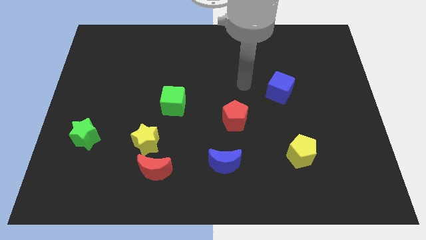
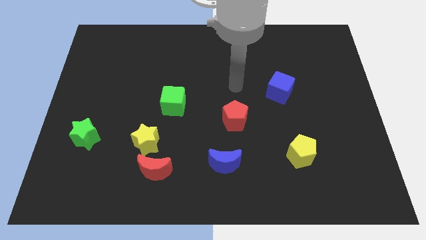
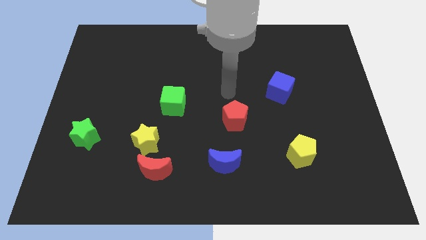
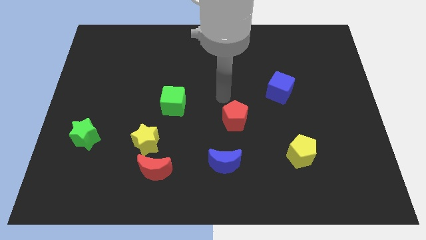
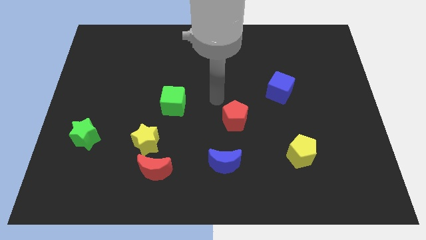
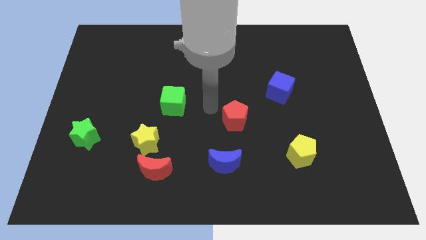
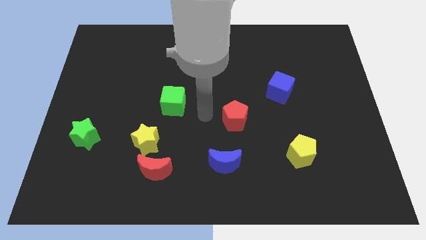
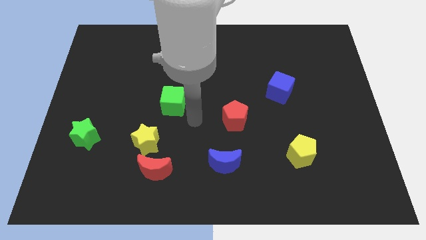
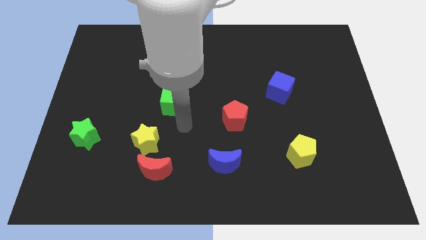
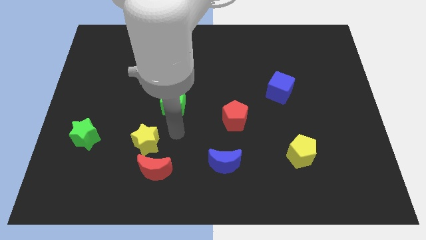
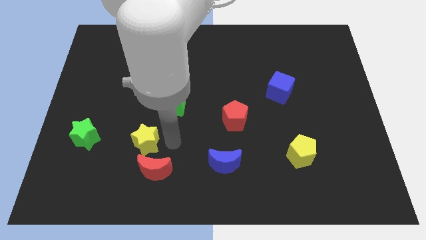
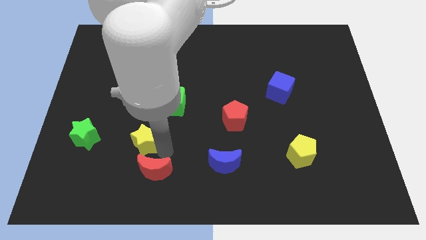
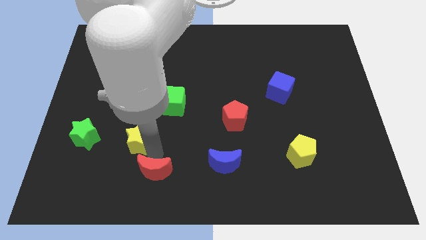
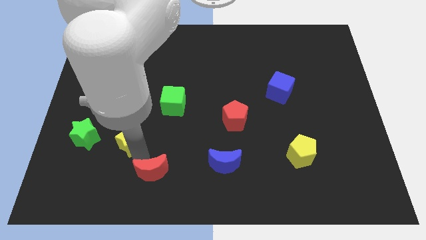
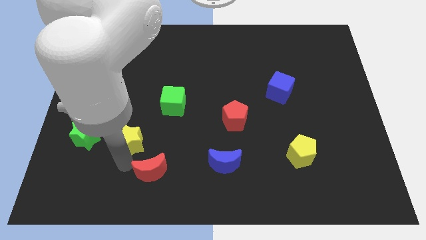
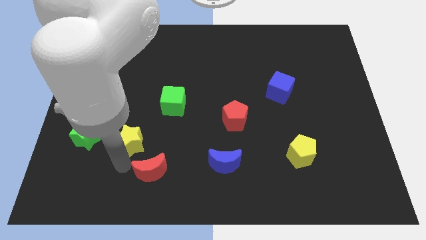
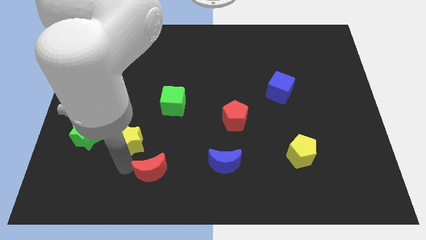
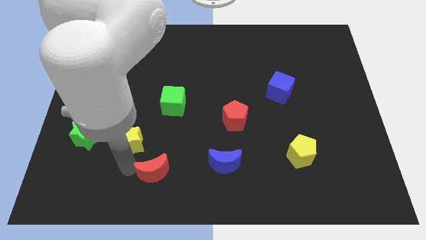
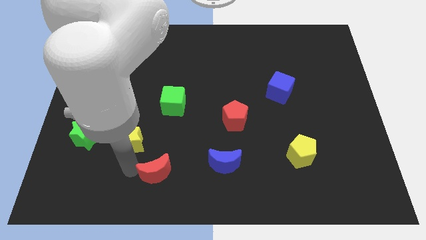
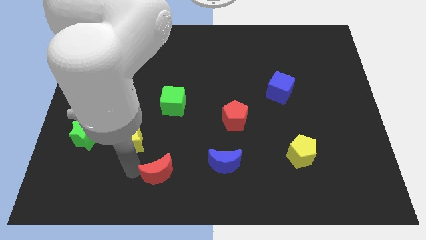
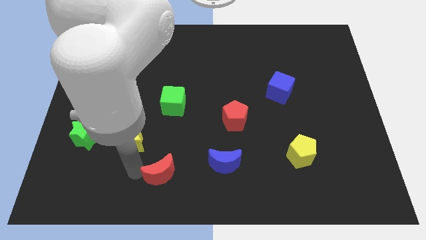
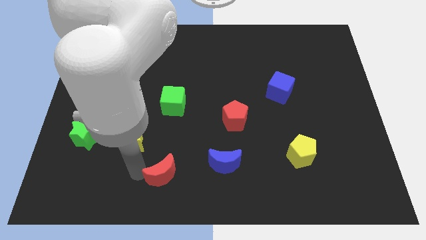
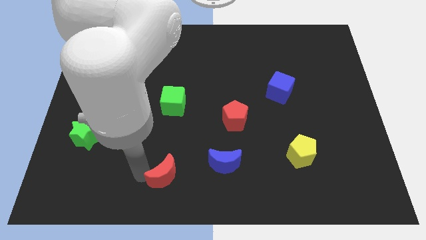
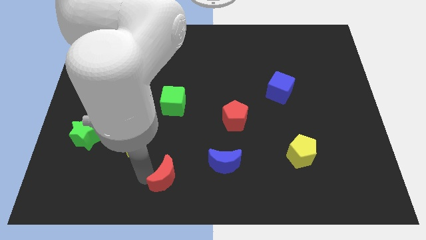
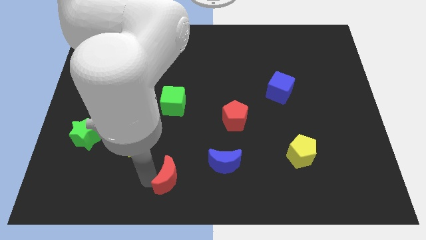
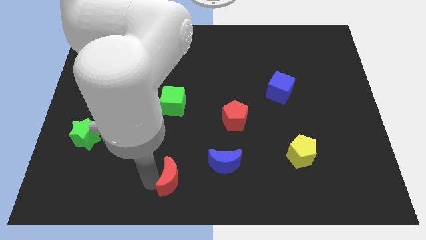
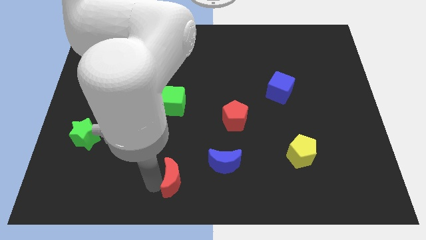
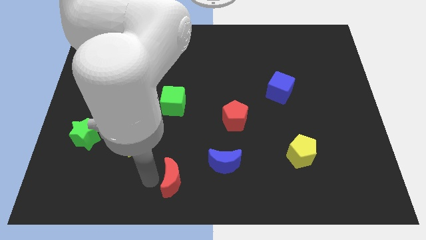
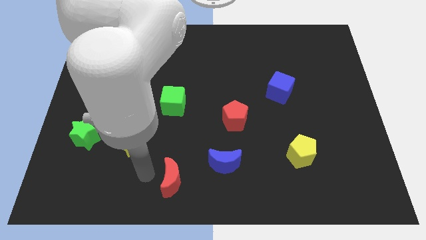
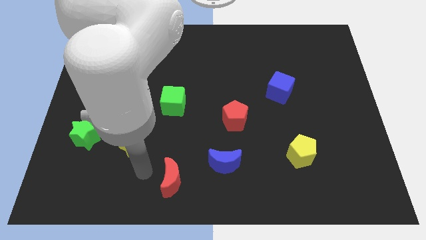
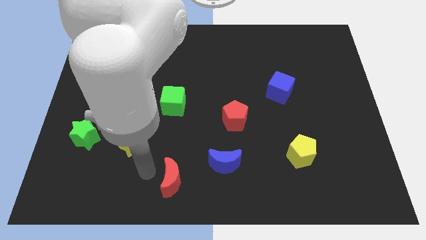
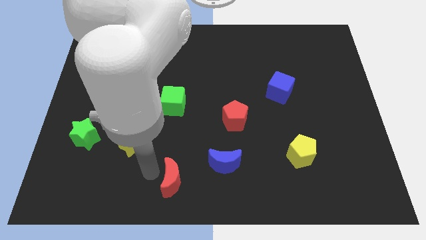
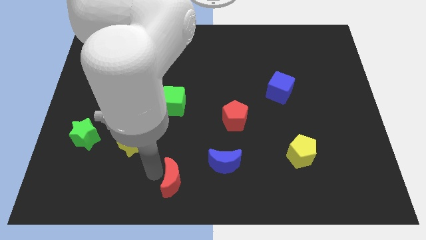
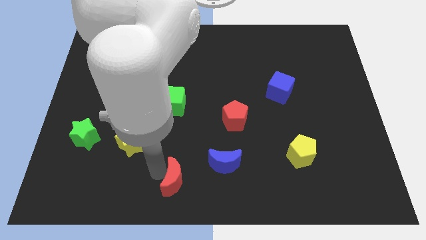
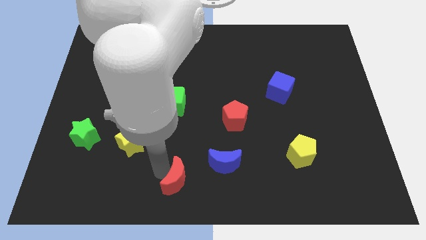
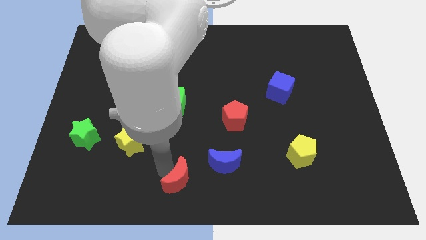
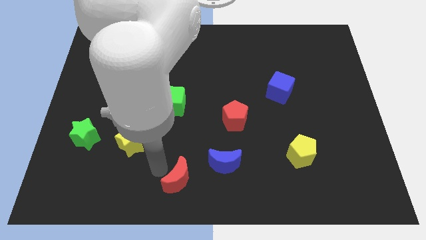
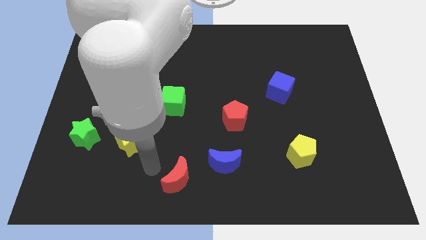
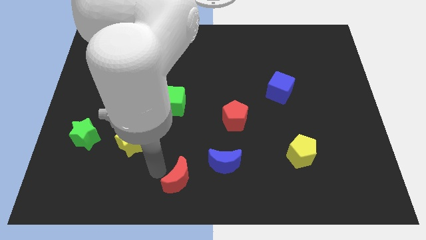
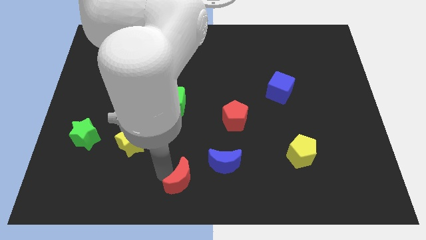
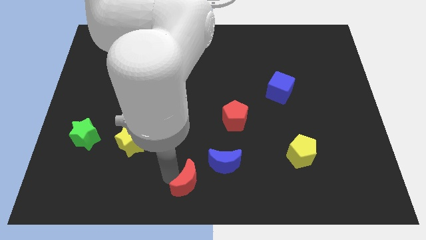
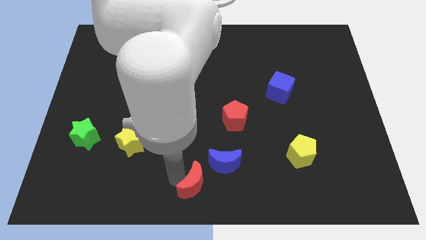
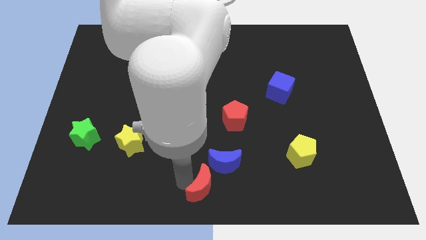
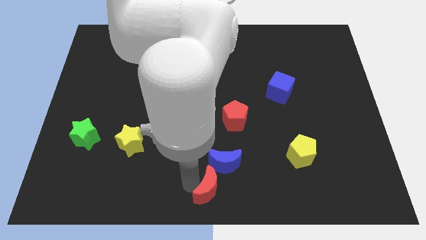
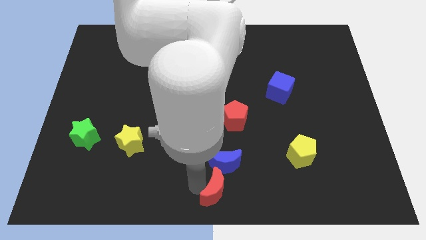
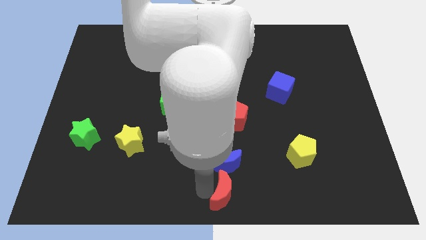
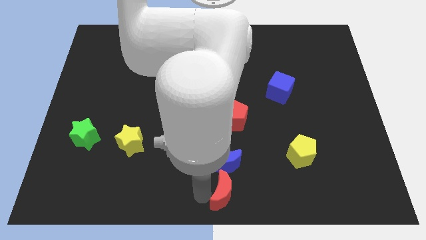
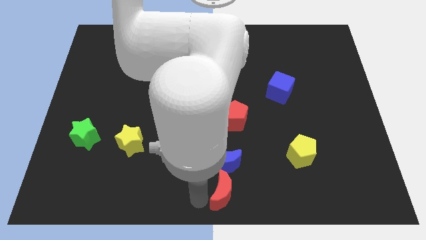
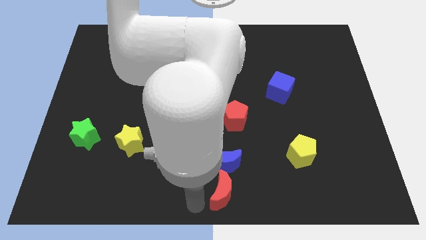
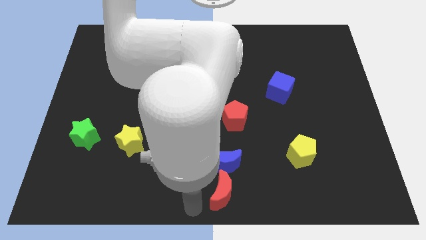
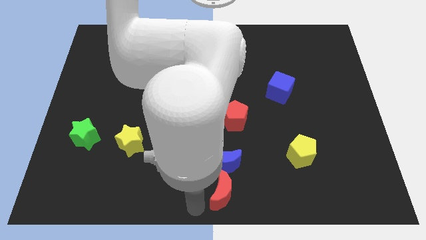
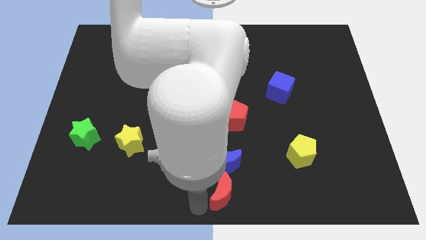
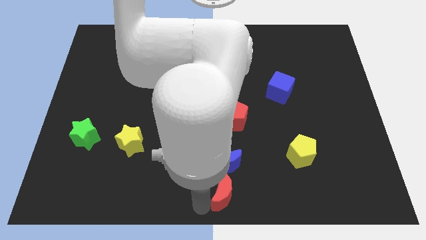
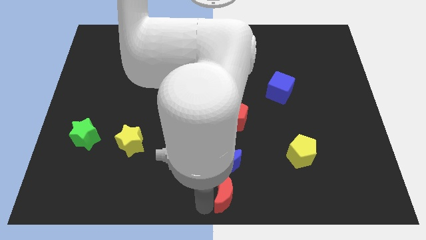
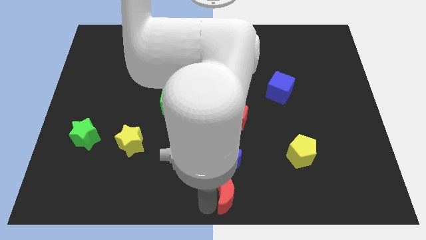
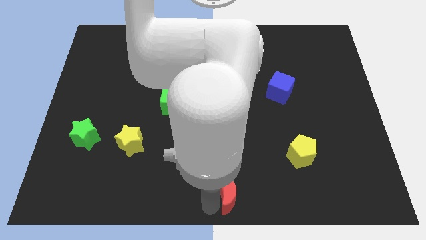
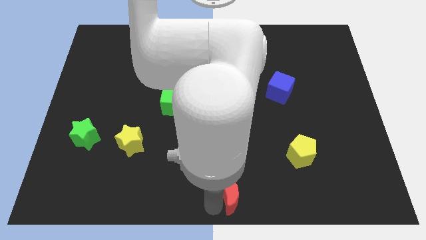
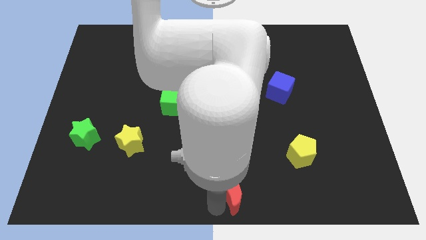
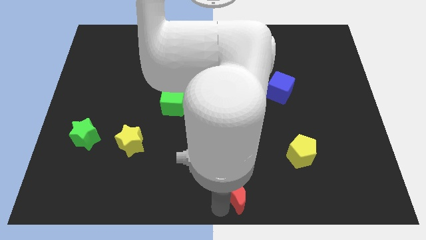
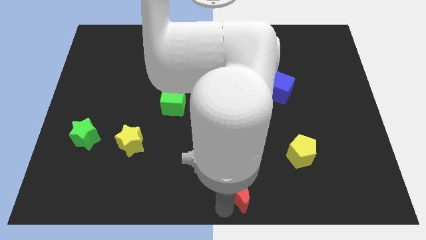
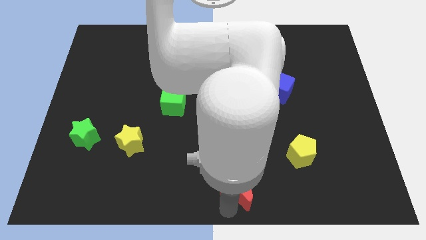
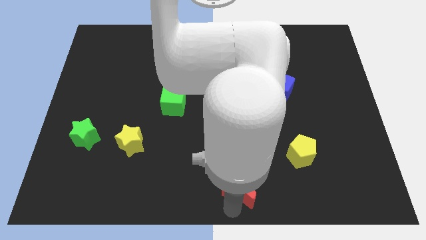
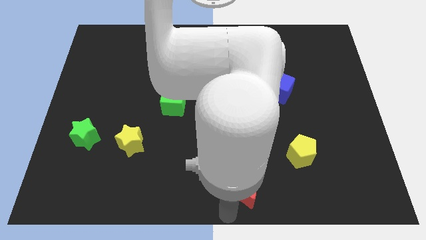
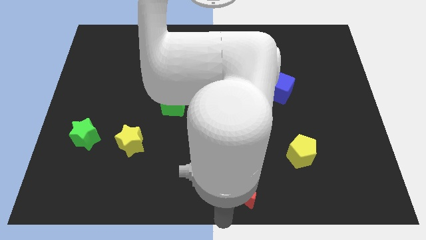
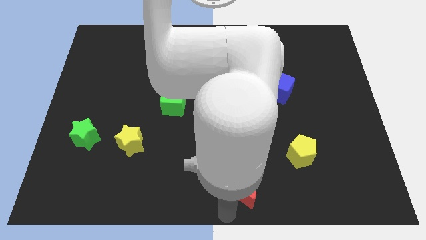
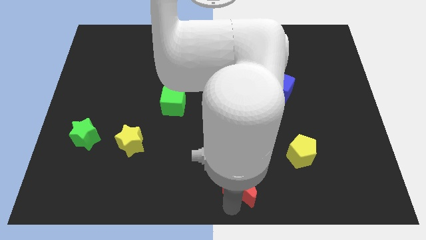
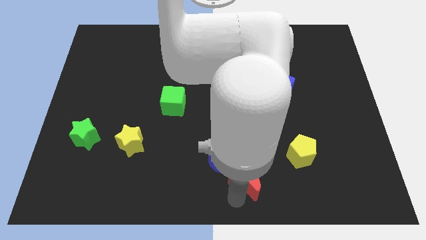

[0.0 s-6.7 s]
slide the red moon right of the blue moon
